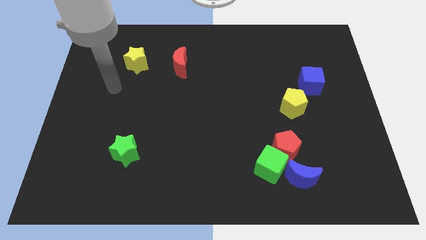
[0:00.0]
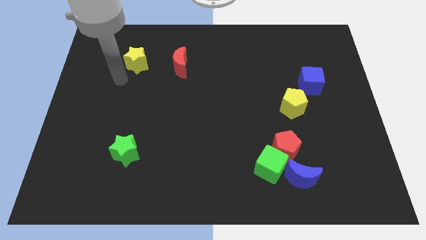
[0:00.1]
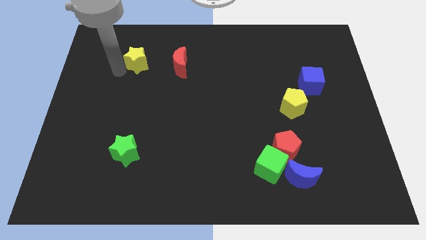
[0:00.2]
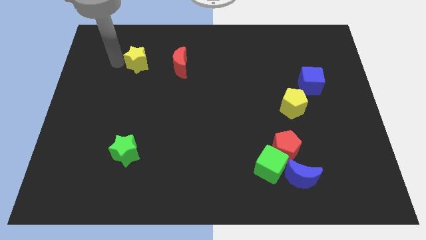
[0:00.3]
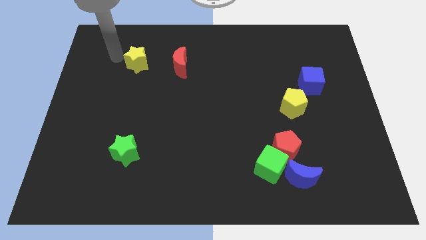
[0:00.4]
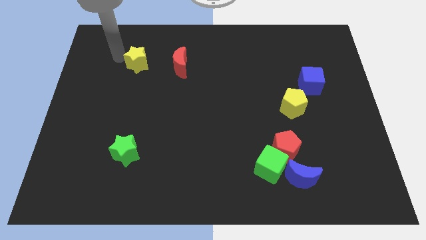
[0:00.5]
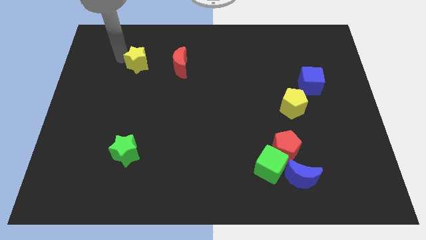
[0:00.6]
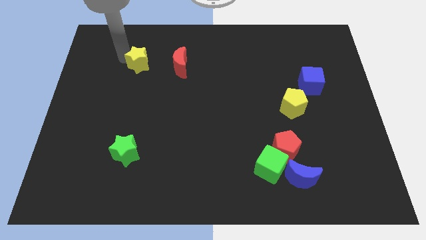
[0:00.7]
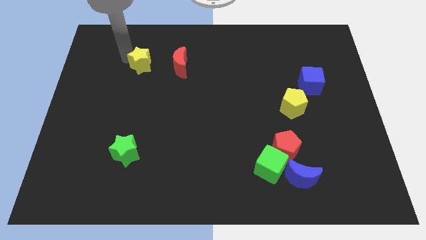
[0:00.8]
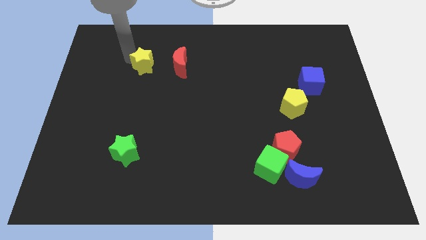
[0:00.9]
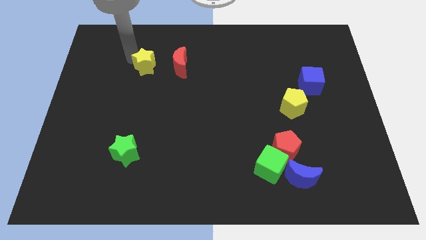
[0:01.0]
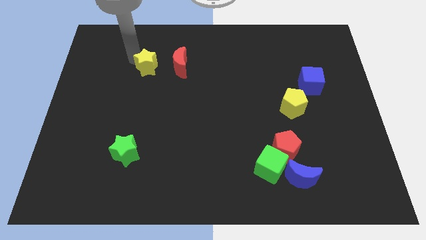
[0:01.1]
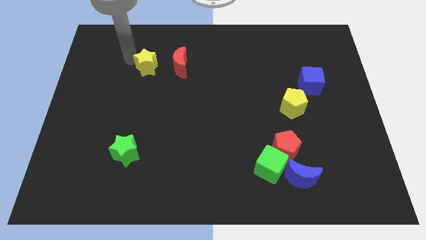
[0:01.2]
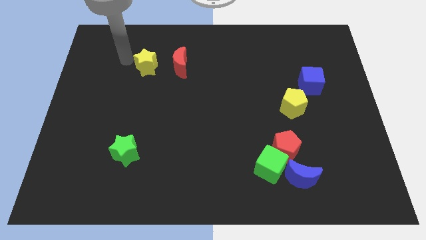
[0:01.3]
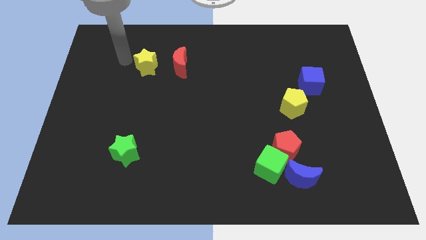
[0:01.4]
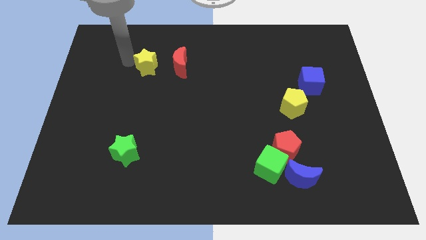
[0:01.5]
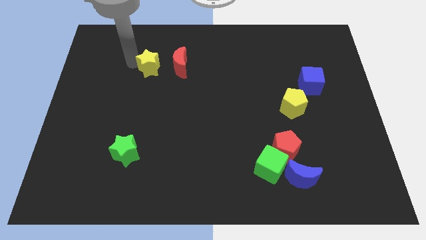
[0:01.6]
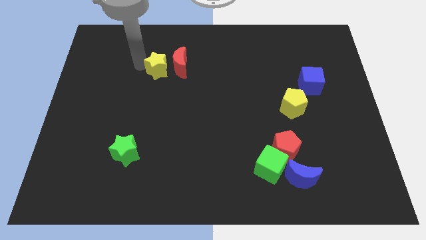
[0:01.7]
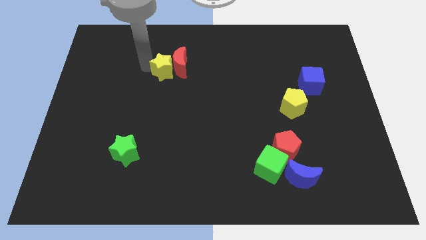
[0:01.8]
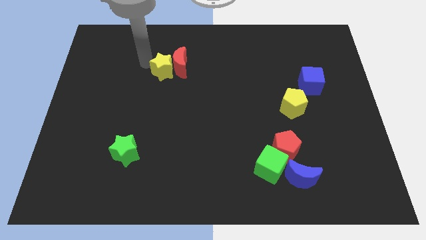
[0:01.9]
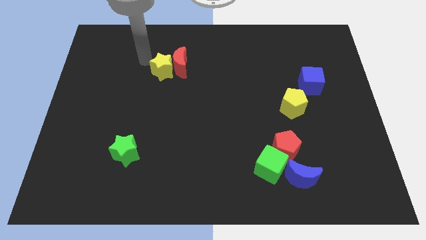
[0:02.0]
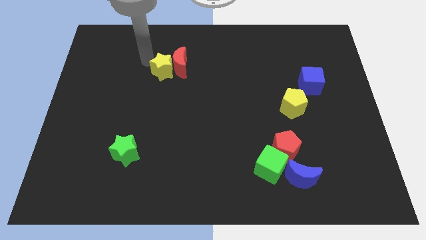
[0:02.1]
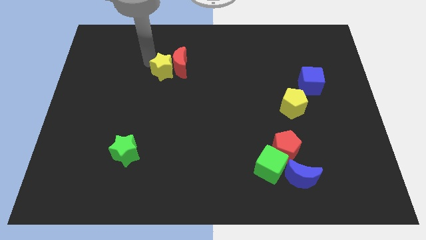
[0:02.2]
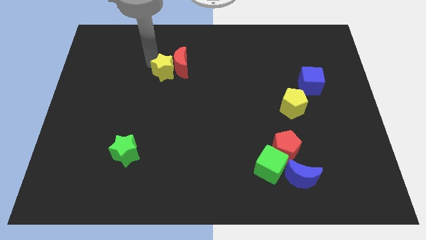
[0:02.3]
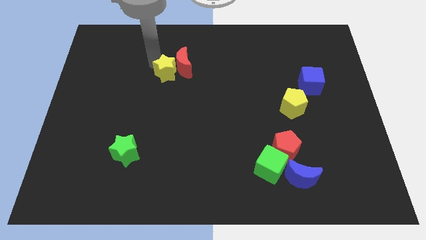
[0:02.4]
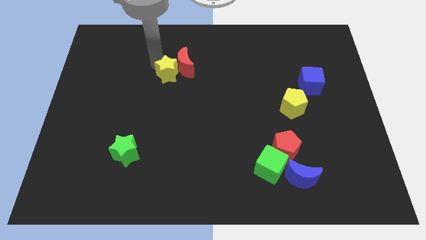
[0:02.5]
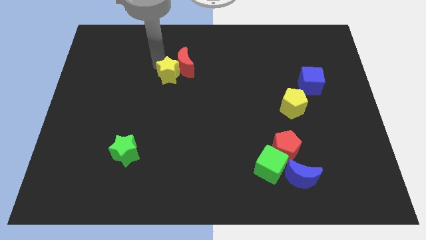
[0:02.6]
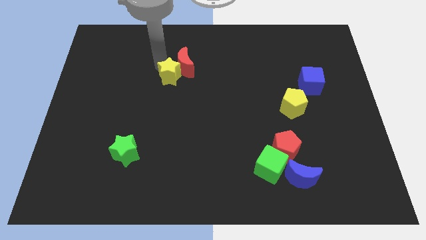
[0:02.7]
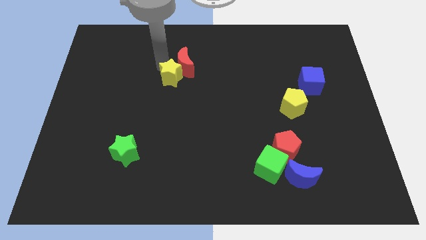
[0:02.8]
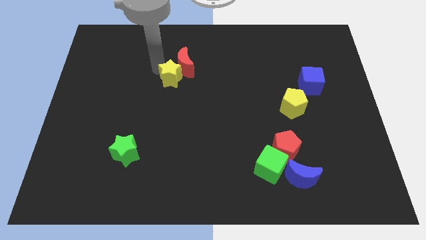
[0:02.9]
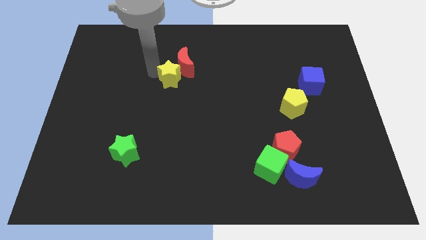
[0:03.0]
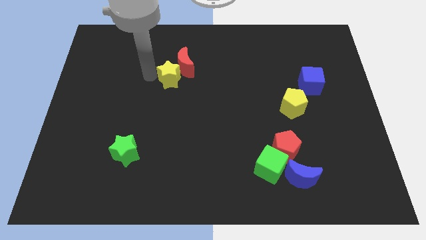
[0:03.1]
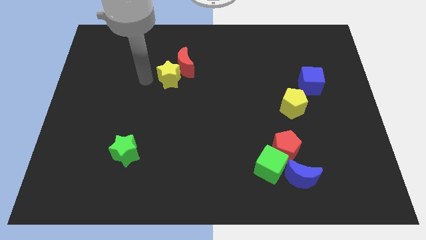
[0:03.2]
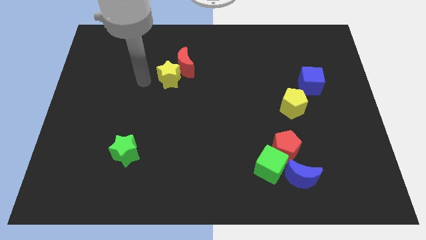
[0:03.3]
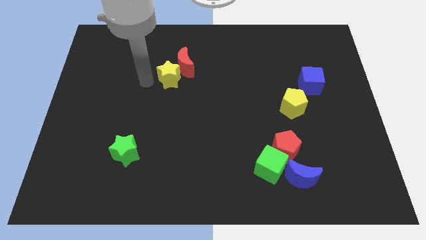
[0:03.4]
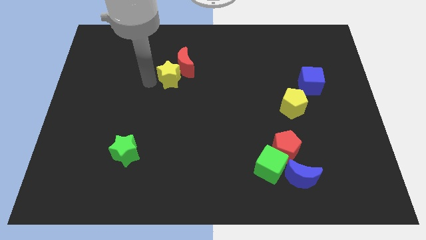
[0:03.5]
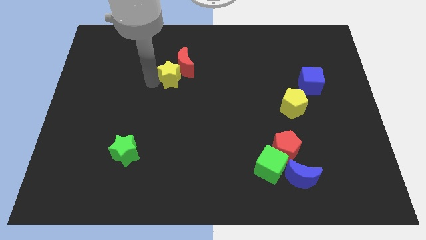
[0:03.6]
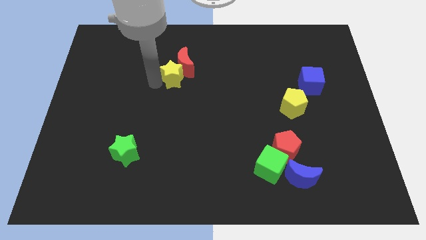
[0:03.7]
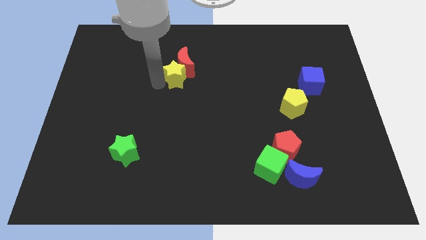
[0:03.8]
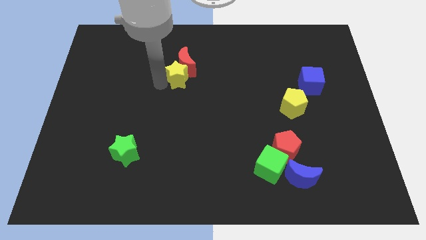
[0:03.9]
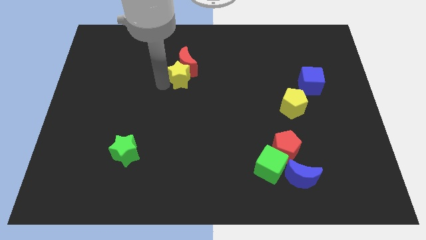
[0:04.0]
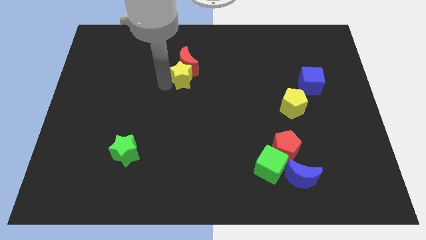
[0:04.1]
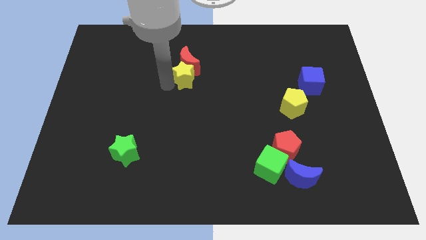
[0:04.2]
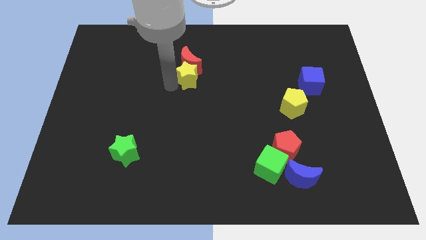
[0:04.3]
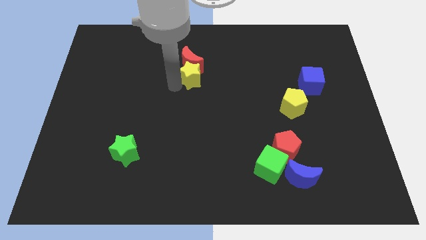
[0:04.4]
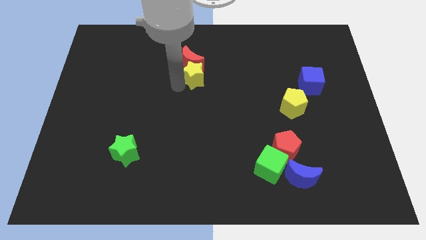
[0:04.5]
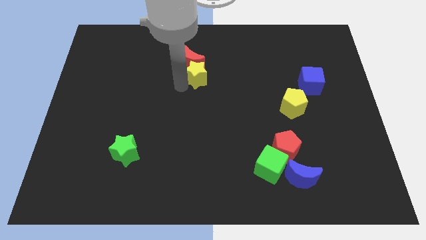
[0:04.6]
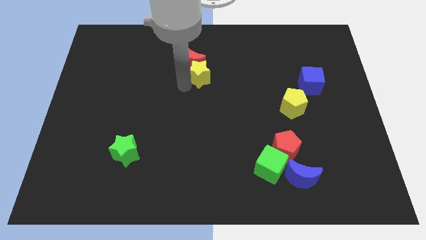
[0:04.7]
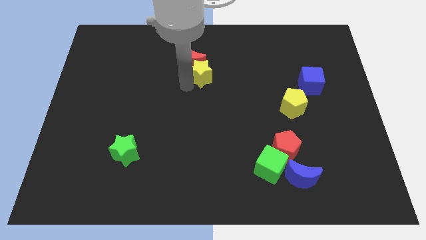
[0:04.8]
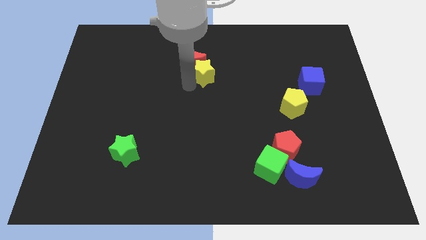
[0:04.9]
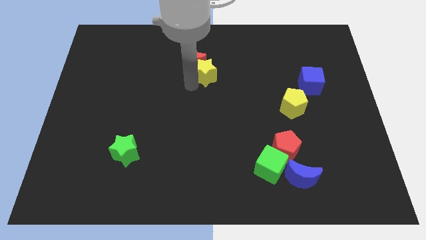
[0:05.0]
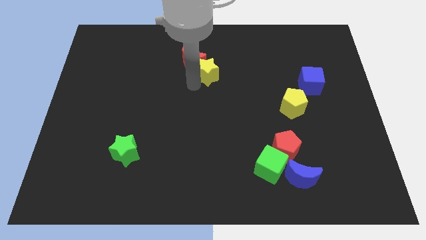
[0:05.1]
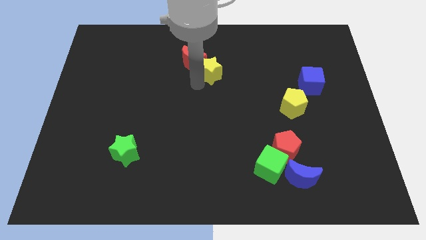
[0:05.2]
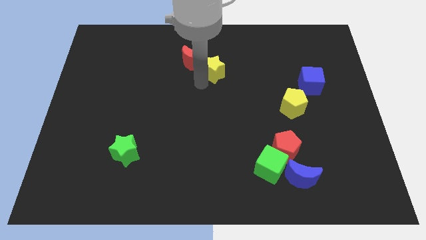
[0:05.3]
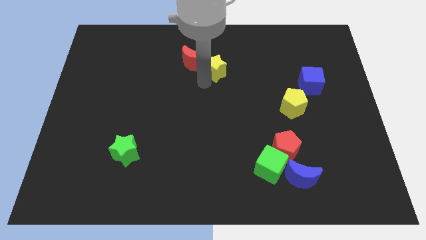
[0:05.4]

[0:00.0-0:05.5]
push the yellow star right

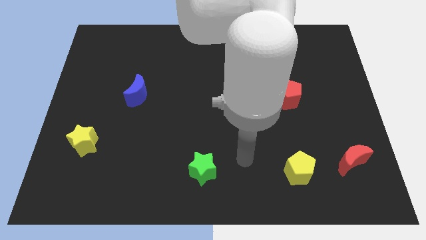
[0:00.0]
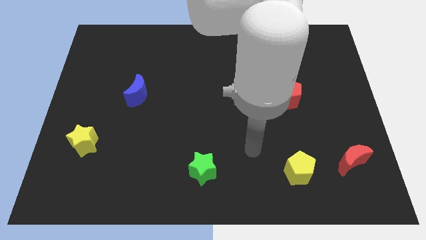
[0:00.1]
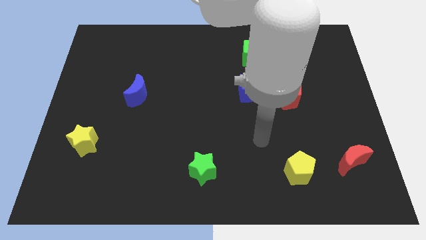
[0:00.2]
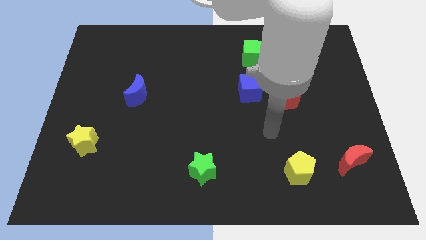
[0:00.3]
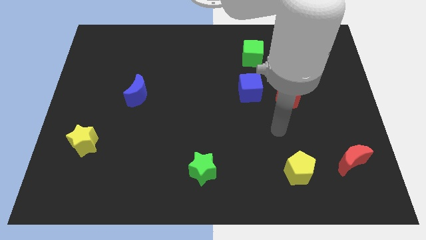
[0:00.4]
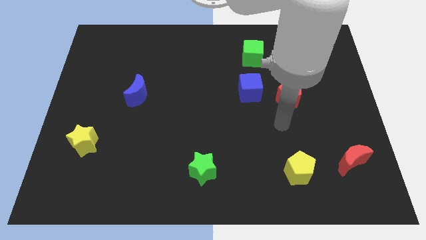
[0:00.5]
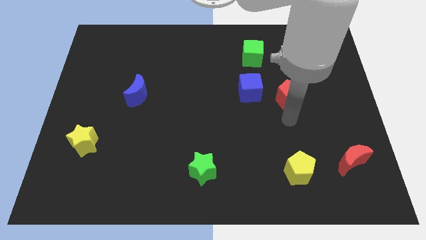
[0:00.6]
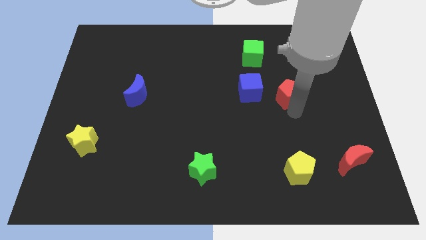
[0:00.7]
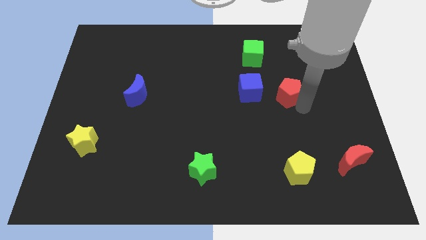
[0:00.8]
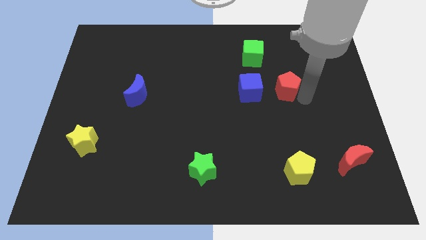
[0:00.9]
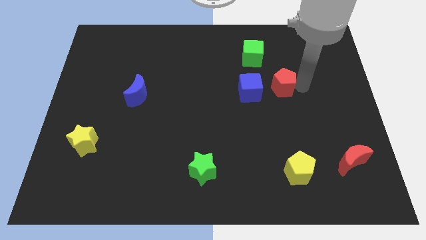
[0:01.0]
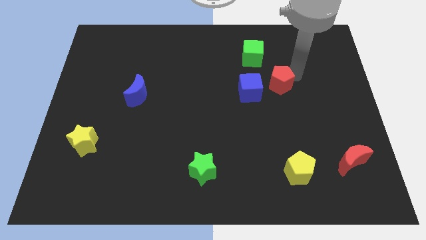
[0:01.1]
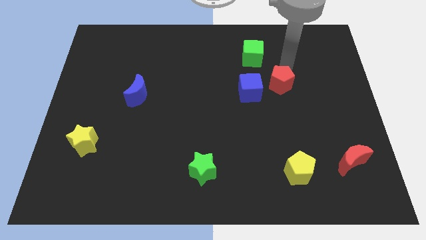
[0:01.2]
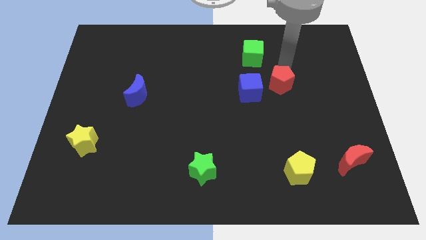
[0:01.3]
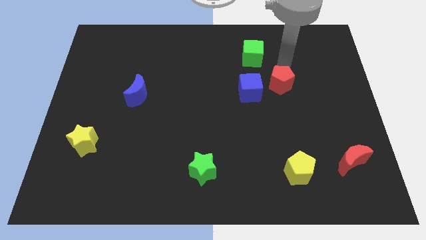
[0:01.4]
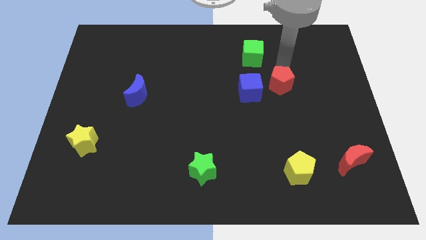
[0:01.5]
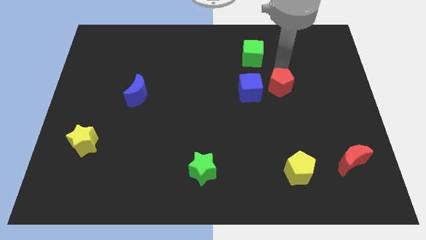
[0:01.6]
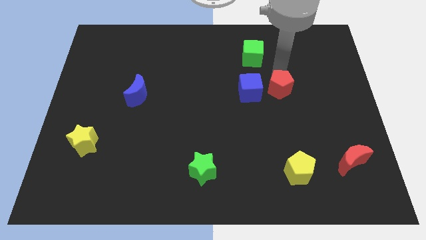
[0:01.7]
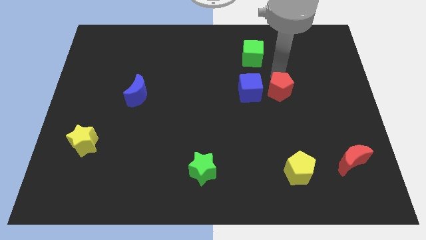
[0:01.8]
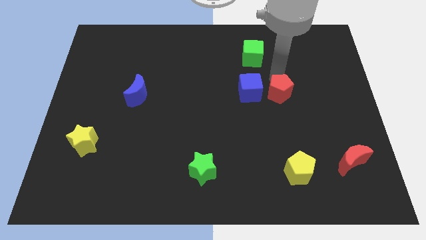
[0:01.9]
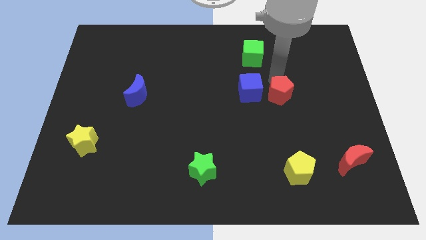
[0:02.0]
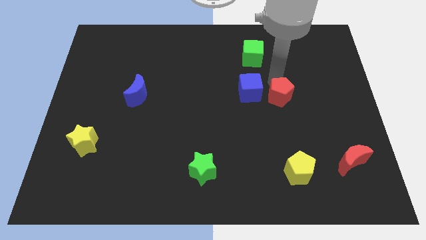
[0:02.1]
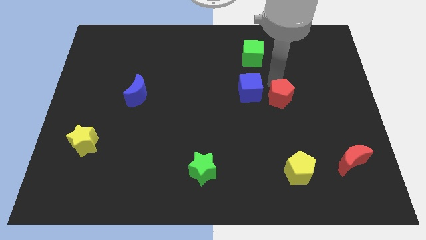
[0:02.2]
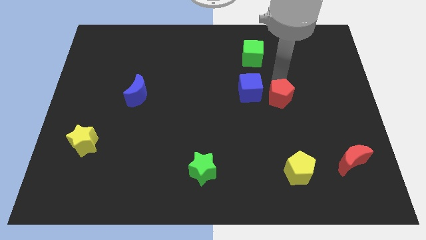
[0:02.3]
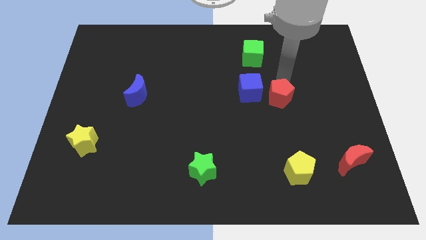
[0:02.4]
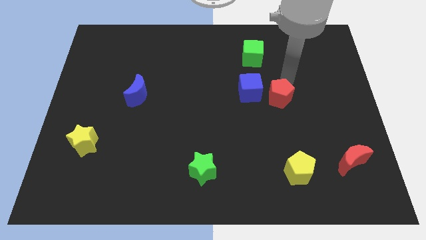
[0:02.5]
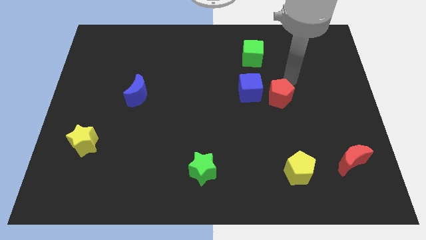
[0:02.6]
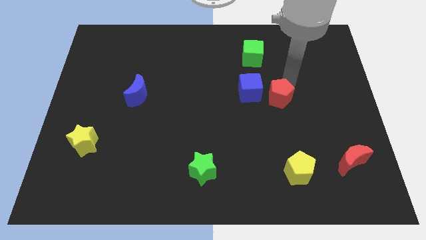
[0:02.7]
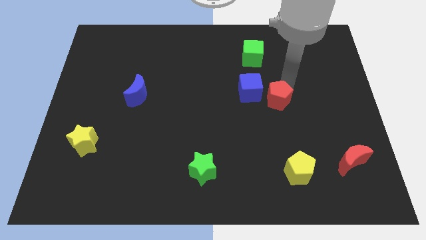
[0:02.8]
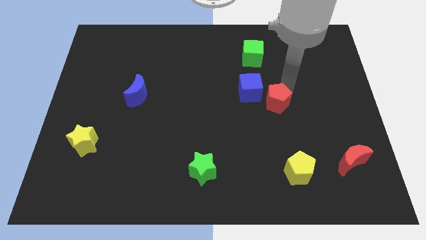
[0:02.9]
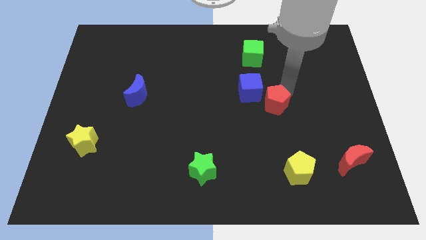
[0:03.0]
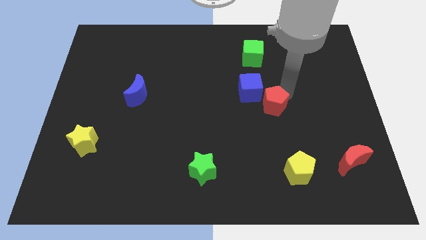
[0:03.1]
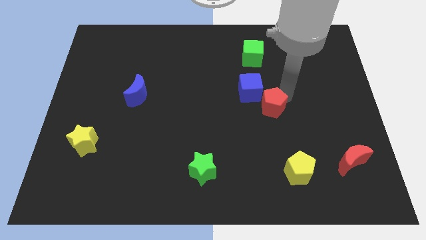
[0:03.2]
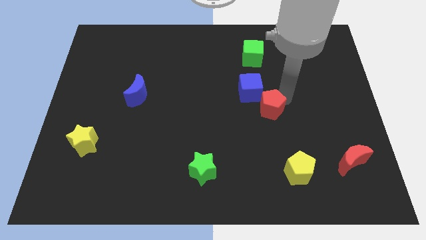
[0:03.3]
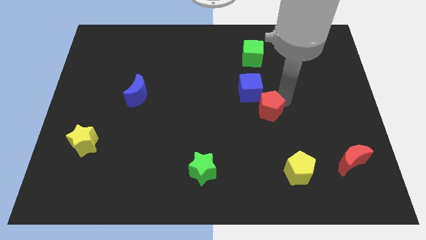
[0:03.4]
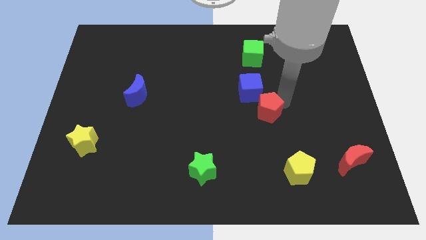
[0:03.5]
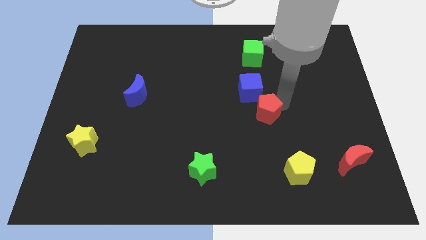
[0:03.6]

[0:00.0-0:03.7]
move the red pentagon a bit downwards and left
